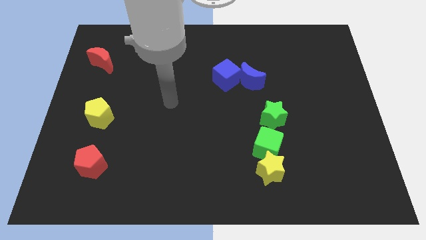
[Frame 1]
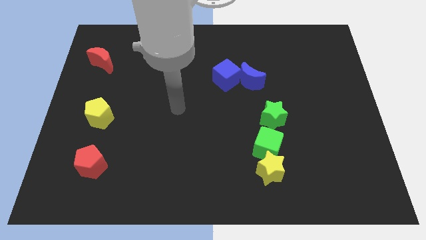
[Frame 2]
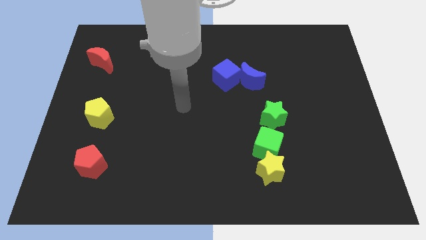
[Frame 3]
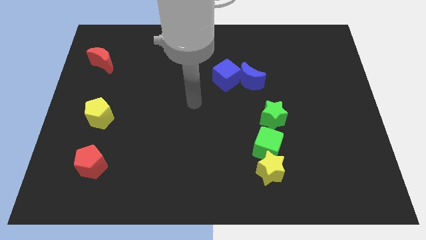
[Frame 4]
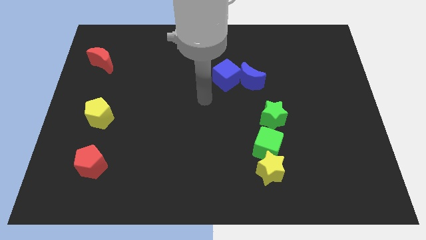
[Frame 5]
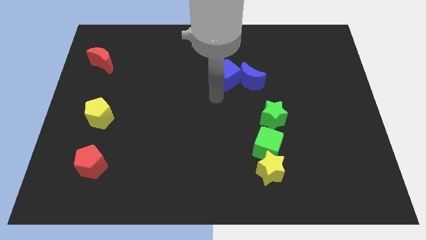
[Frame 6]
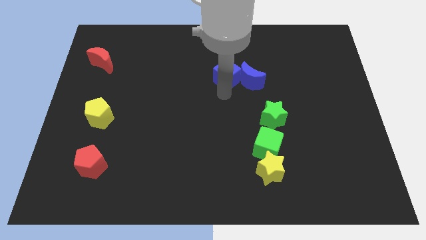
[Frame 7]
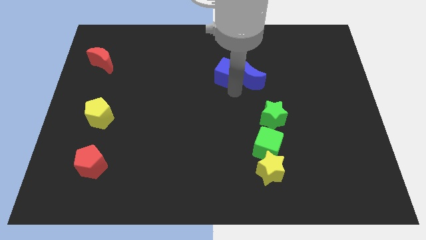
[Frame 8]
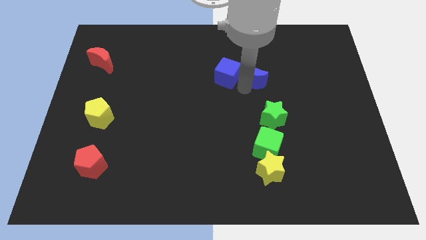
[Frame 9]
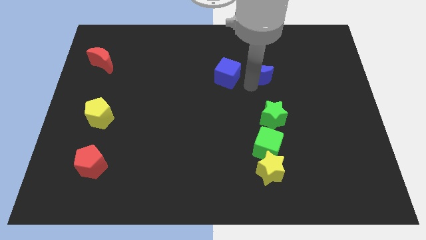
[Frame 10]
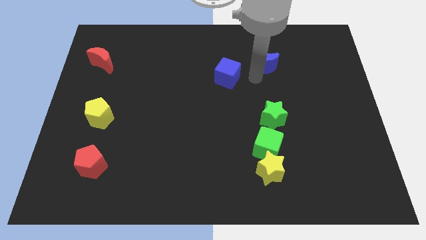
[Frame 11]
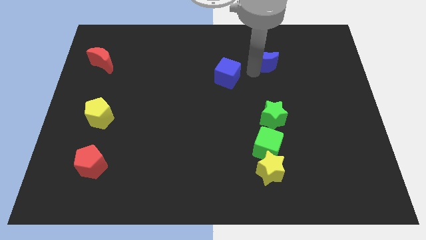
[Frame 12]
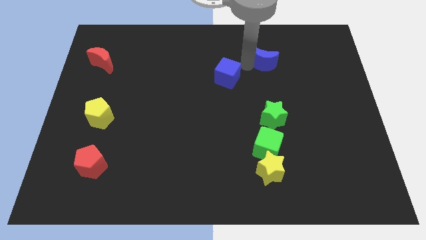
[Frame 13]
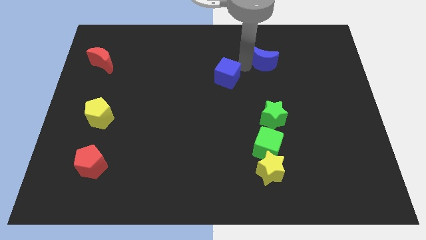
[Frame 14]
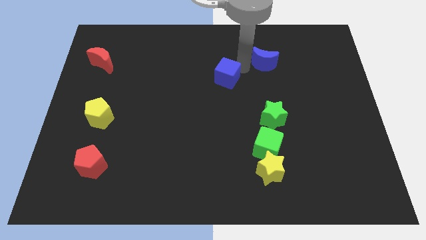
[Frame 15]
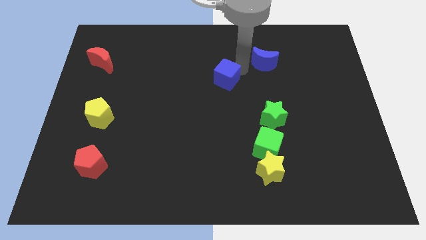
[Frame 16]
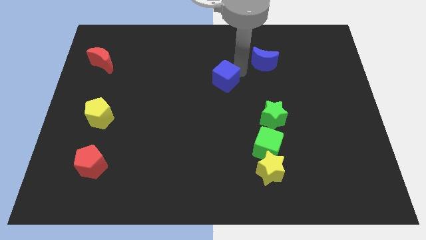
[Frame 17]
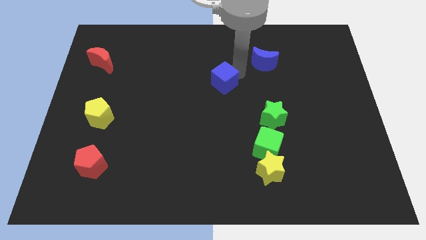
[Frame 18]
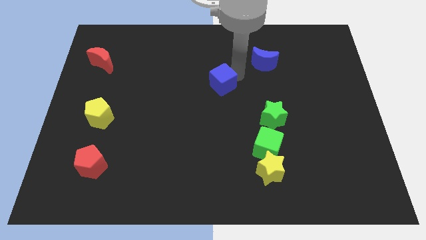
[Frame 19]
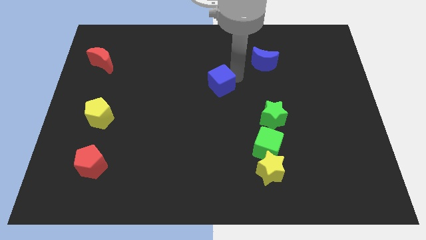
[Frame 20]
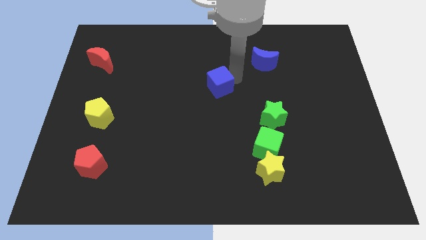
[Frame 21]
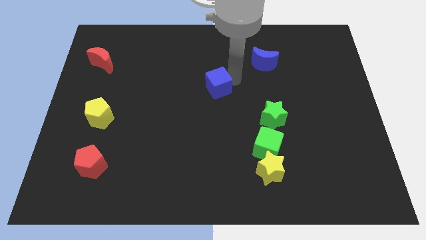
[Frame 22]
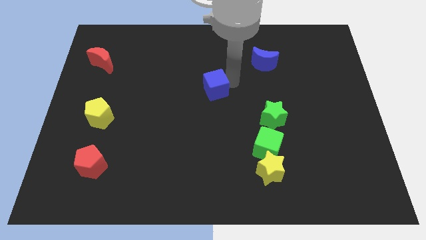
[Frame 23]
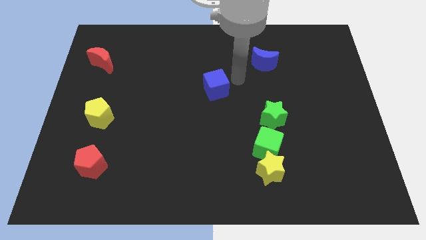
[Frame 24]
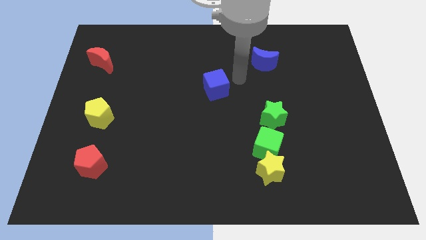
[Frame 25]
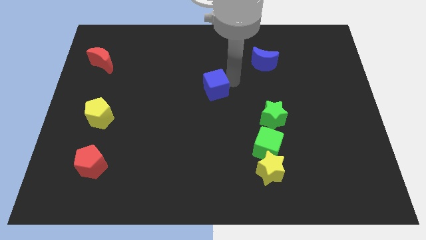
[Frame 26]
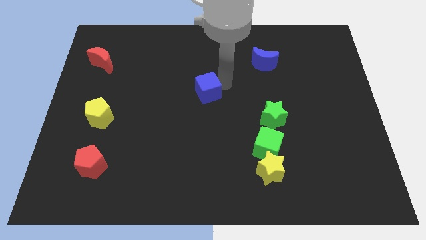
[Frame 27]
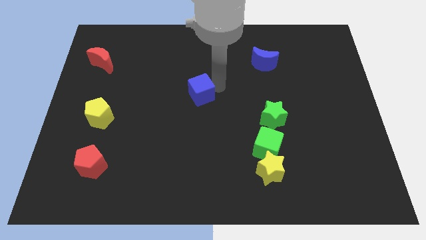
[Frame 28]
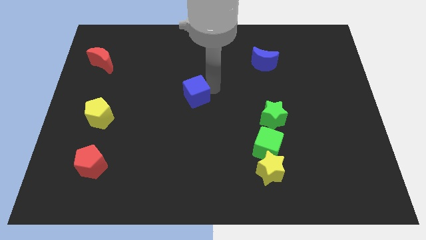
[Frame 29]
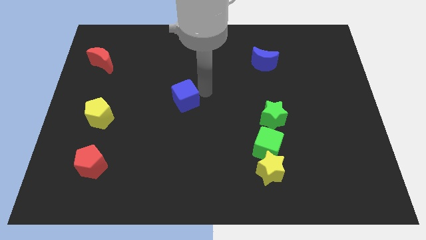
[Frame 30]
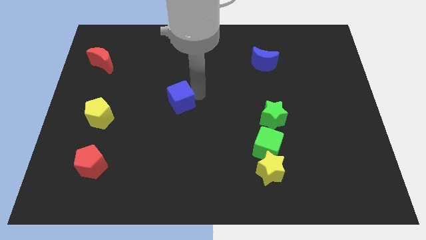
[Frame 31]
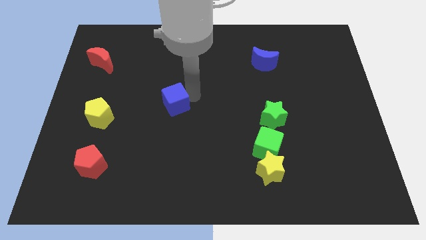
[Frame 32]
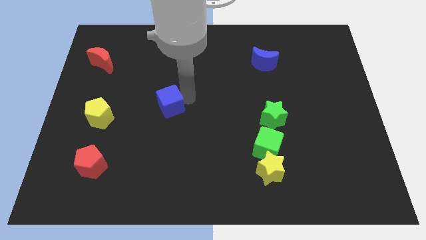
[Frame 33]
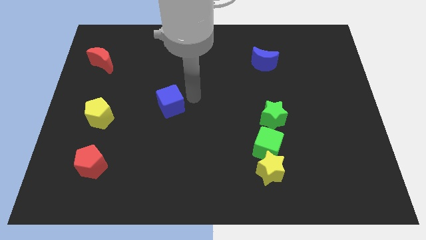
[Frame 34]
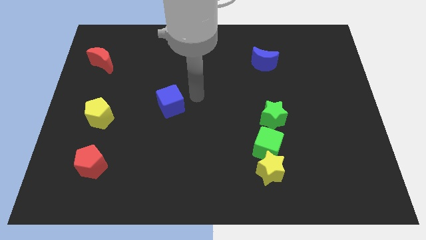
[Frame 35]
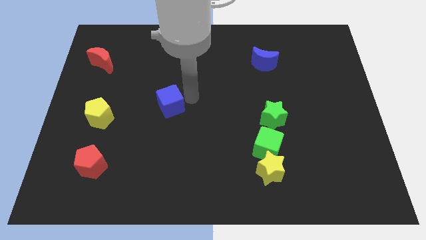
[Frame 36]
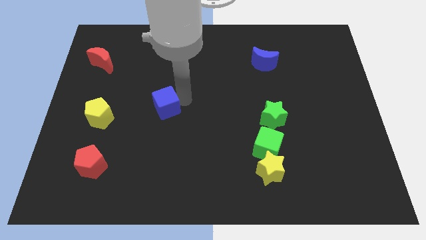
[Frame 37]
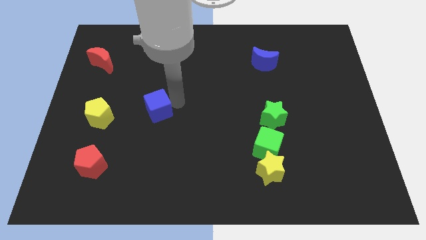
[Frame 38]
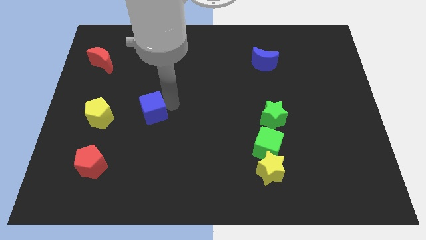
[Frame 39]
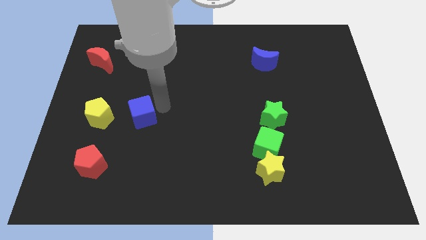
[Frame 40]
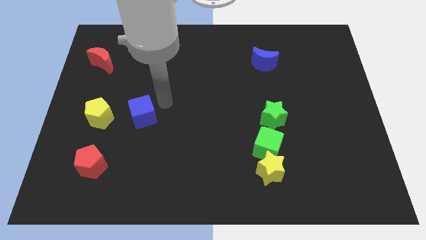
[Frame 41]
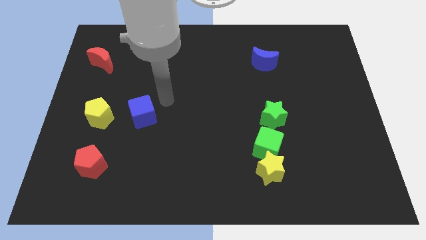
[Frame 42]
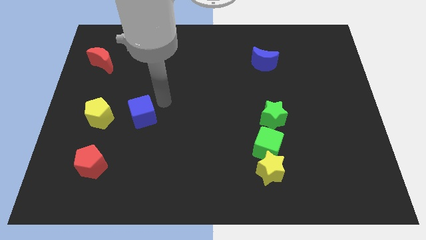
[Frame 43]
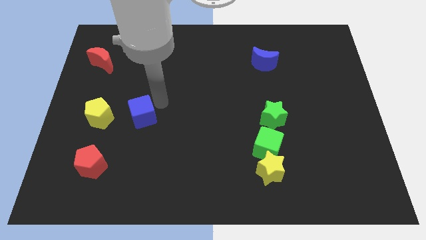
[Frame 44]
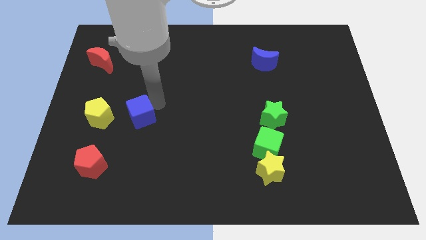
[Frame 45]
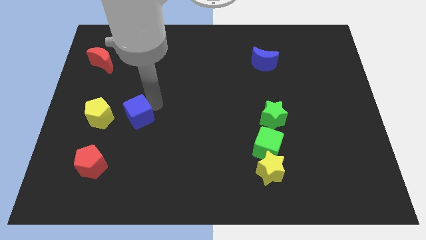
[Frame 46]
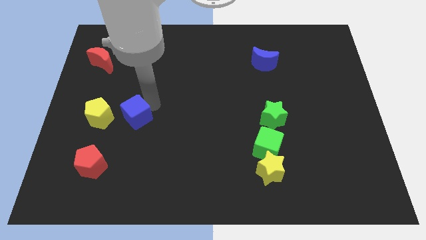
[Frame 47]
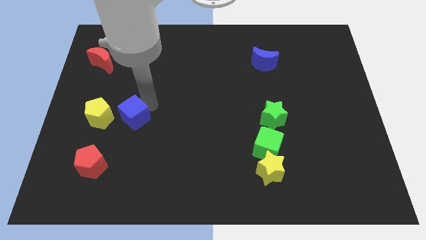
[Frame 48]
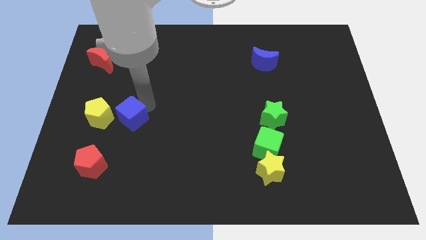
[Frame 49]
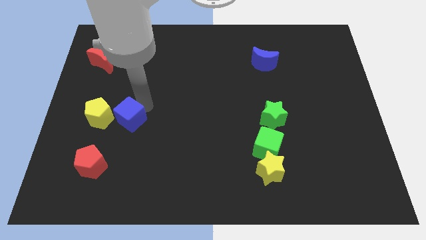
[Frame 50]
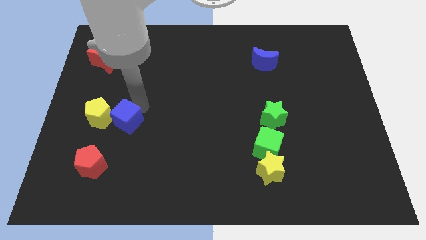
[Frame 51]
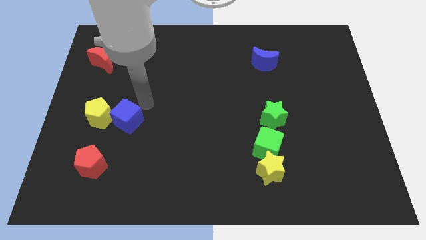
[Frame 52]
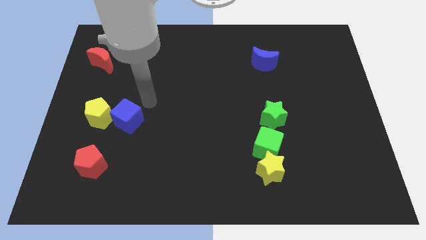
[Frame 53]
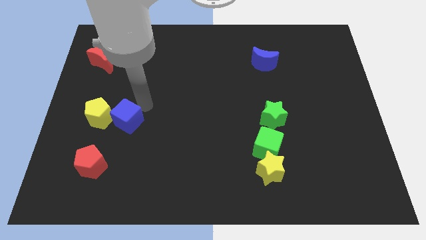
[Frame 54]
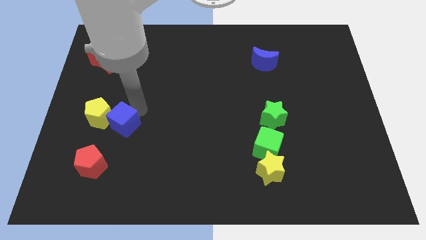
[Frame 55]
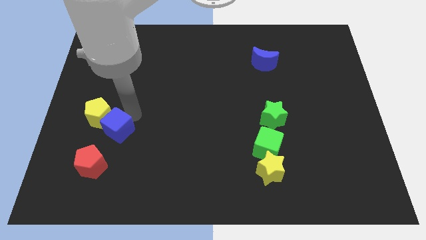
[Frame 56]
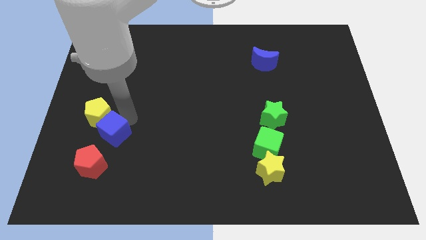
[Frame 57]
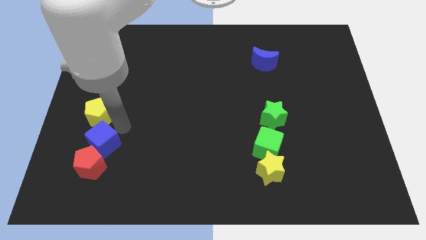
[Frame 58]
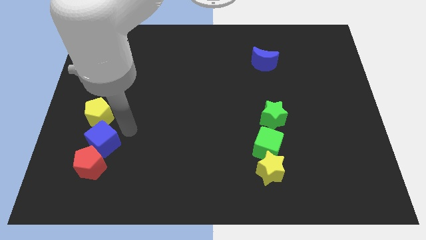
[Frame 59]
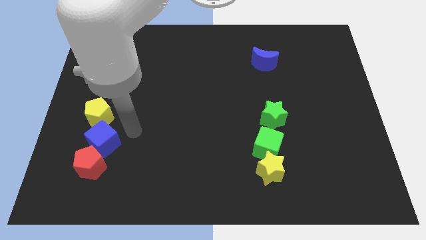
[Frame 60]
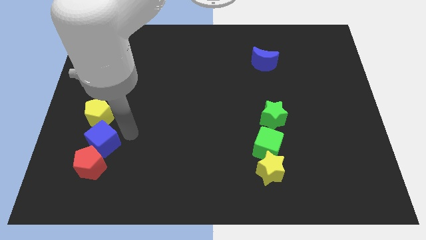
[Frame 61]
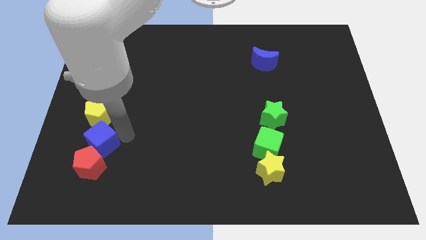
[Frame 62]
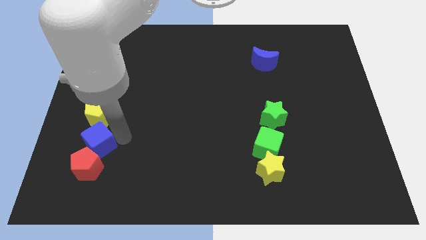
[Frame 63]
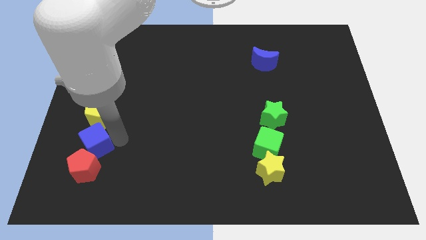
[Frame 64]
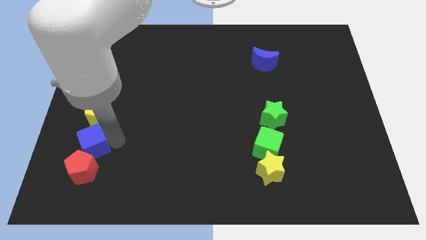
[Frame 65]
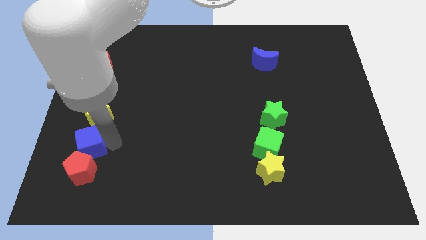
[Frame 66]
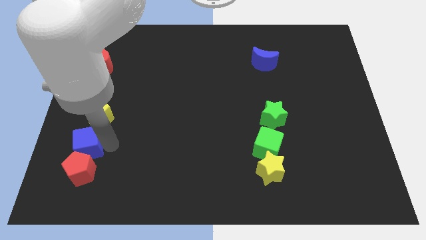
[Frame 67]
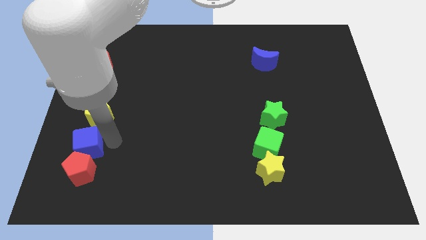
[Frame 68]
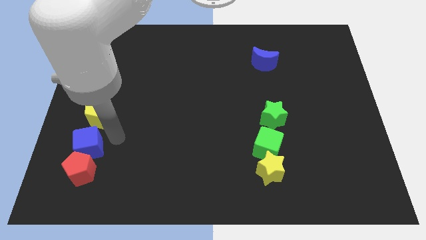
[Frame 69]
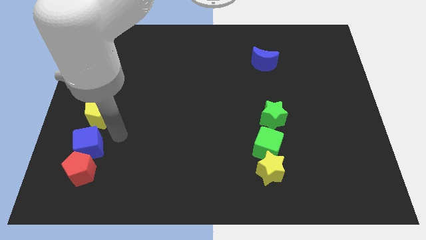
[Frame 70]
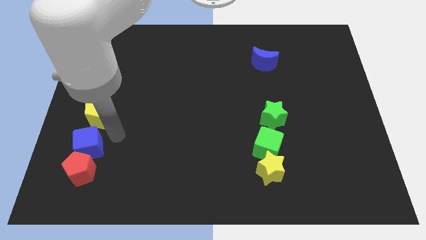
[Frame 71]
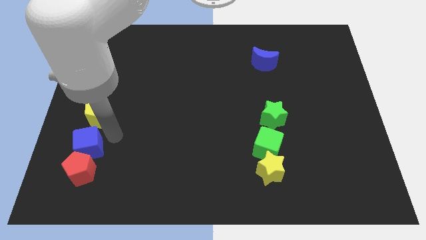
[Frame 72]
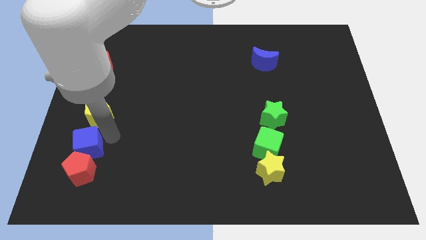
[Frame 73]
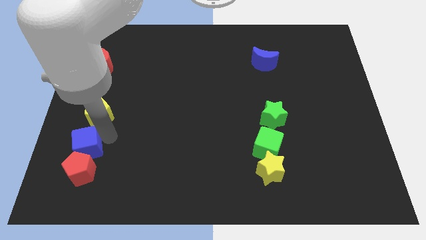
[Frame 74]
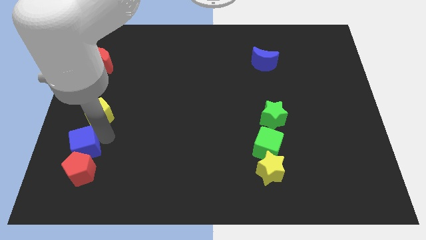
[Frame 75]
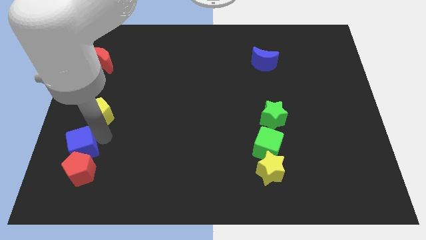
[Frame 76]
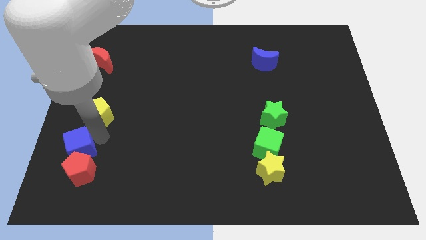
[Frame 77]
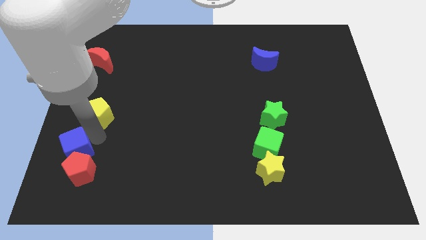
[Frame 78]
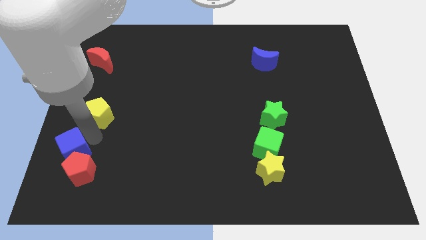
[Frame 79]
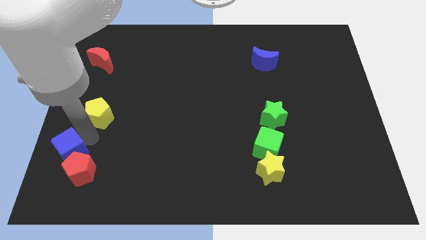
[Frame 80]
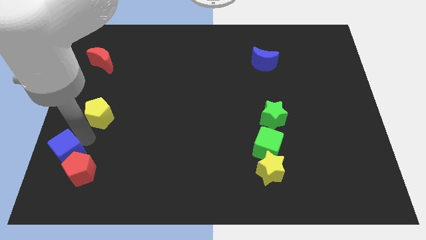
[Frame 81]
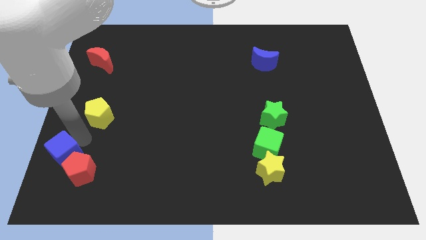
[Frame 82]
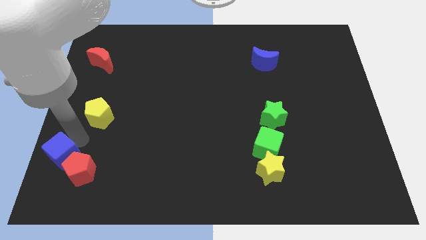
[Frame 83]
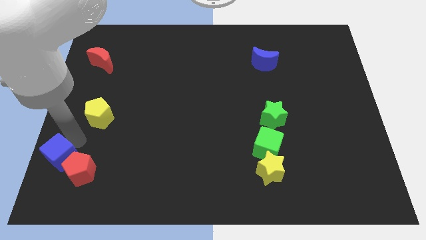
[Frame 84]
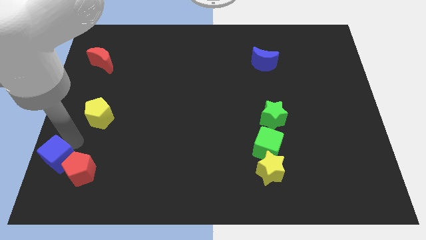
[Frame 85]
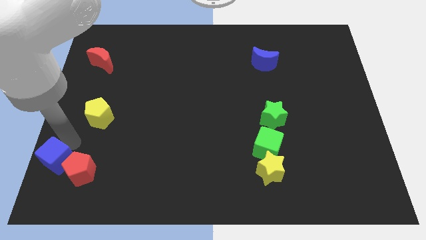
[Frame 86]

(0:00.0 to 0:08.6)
move the blue cube to the bottom left of the board
